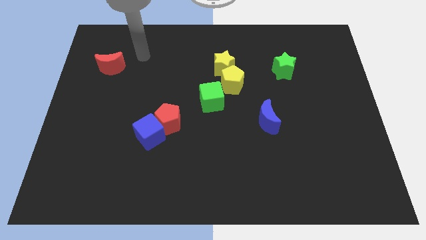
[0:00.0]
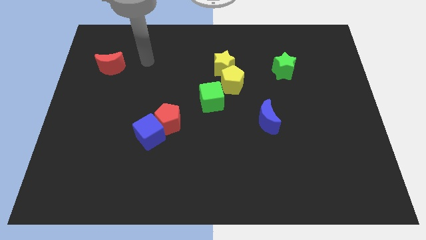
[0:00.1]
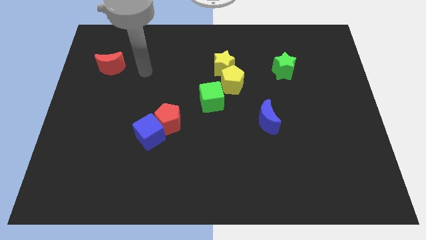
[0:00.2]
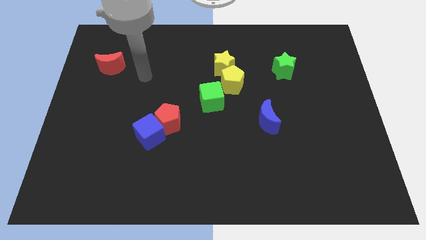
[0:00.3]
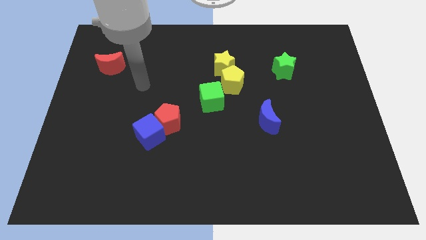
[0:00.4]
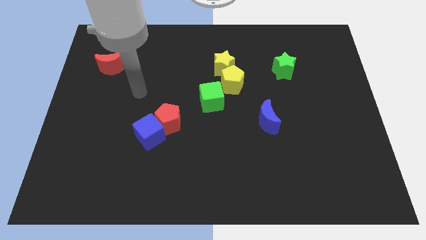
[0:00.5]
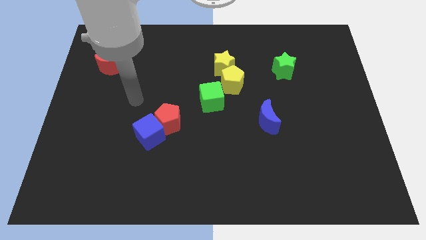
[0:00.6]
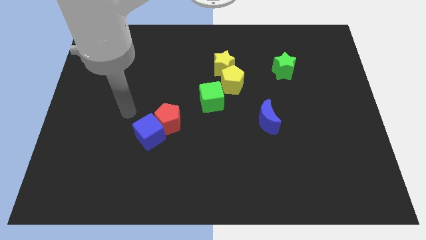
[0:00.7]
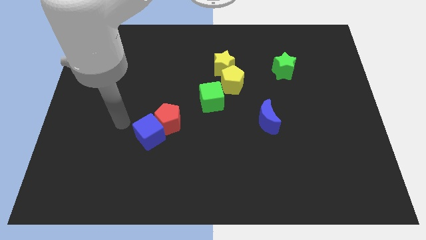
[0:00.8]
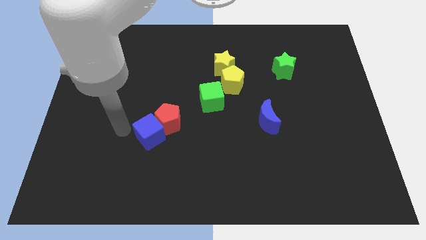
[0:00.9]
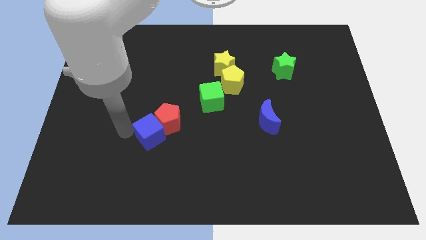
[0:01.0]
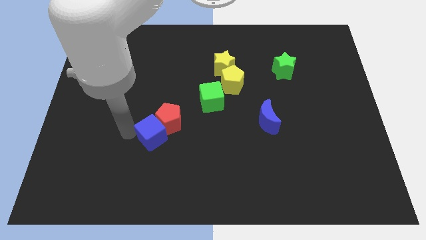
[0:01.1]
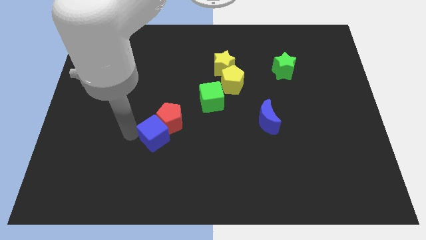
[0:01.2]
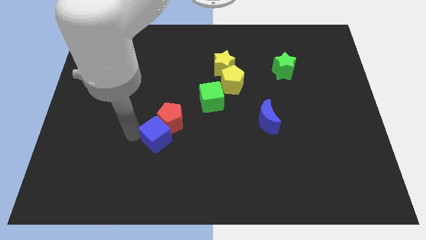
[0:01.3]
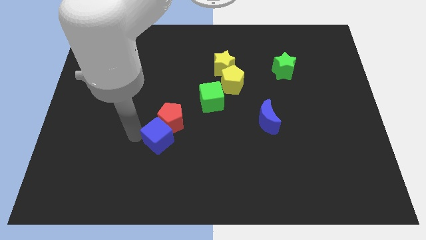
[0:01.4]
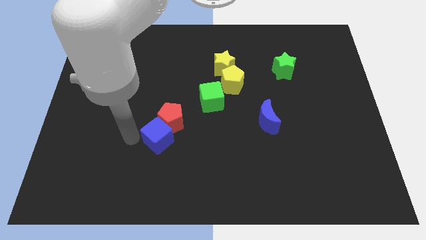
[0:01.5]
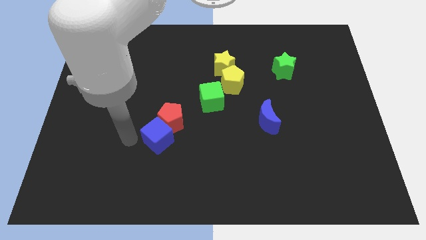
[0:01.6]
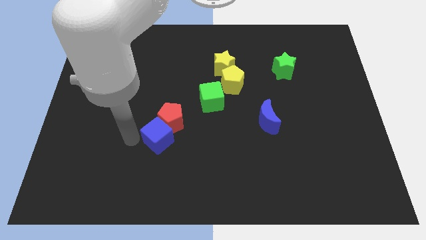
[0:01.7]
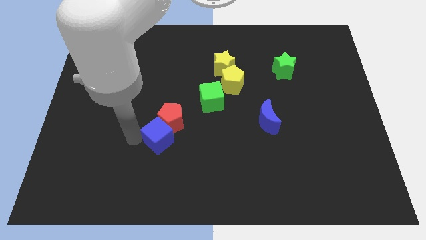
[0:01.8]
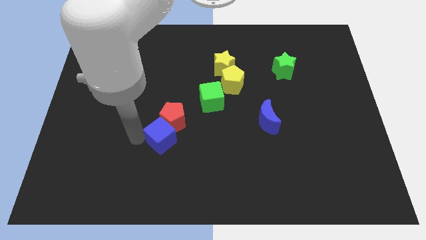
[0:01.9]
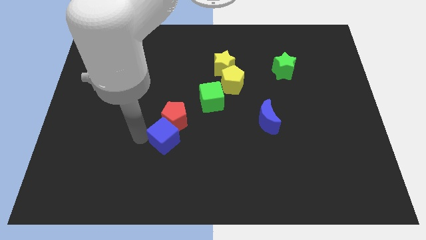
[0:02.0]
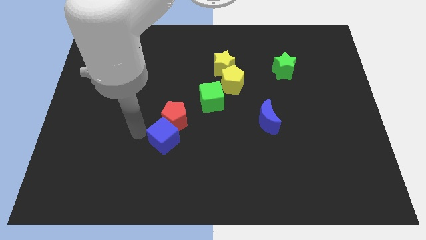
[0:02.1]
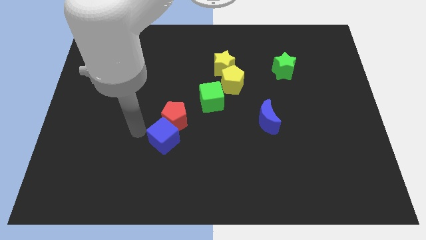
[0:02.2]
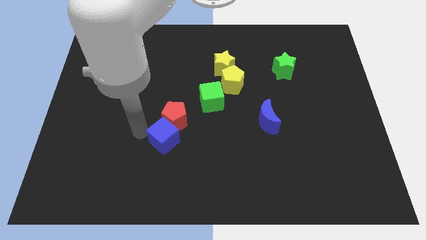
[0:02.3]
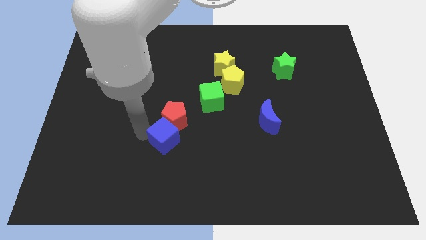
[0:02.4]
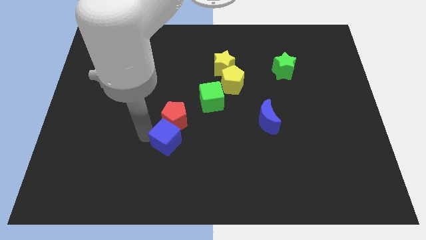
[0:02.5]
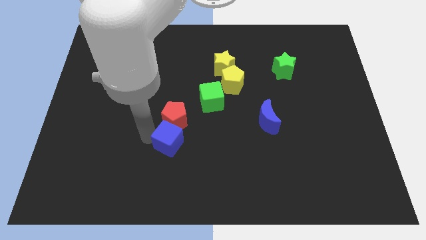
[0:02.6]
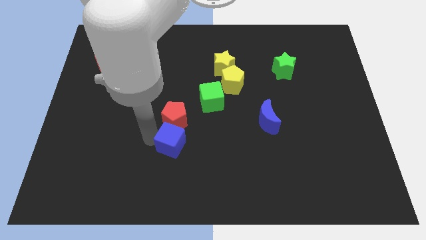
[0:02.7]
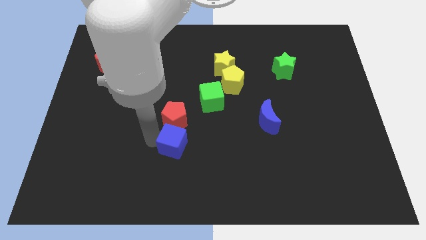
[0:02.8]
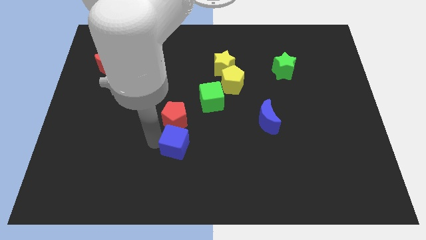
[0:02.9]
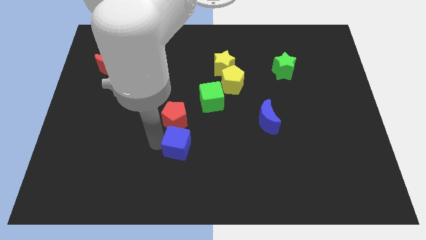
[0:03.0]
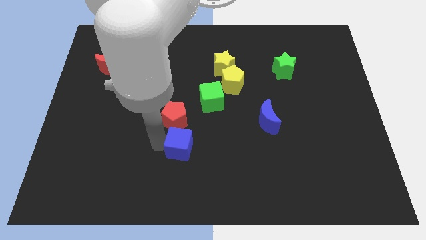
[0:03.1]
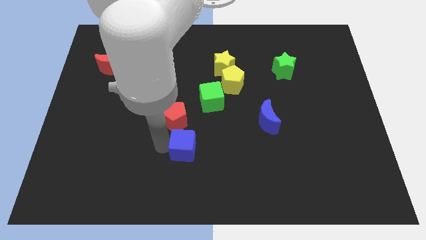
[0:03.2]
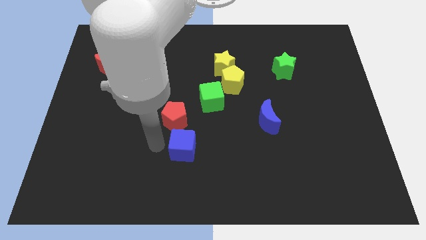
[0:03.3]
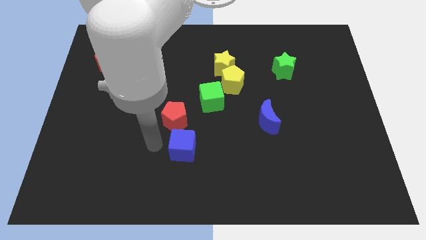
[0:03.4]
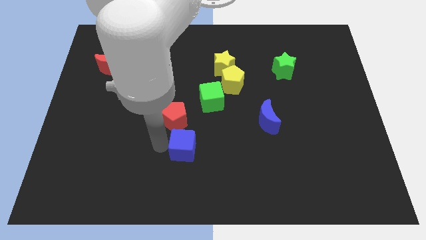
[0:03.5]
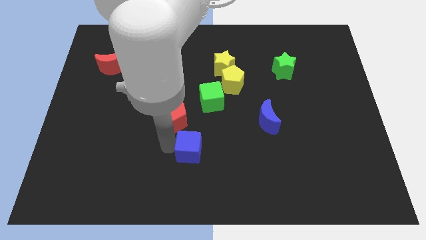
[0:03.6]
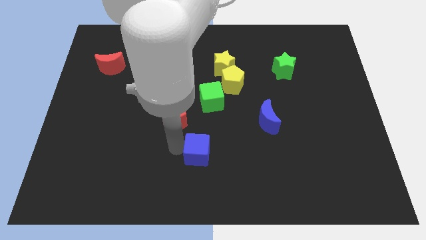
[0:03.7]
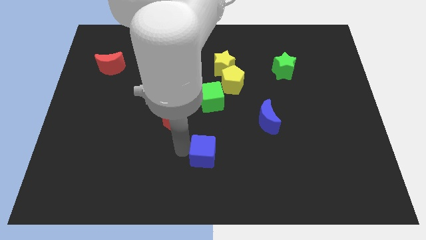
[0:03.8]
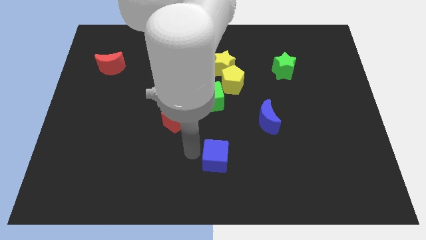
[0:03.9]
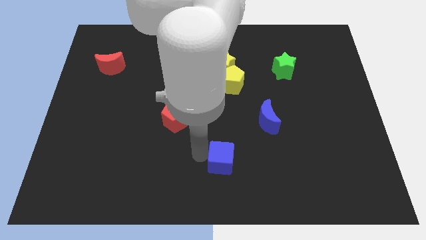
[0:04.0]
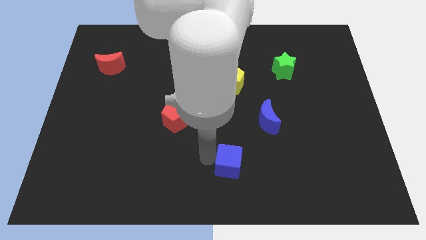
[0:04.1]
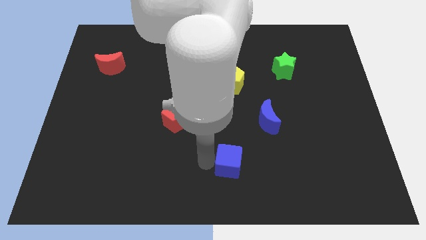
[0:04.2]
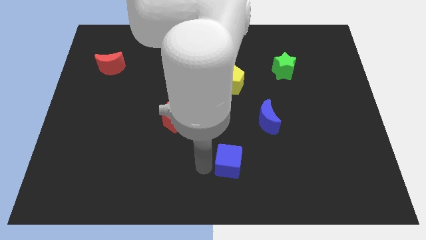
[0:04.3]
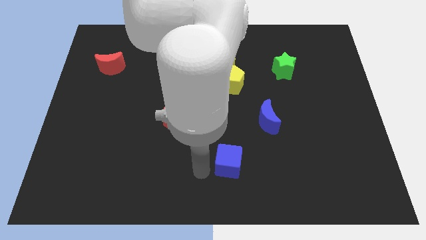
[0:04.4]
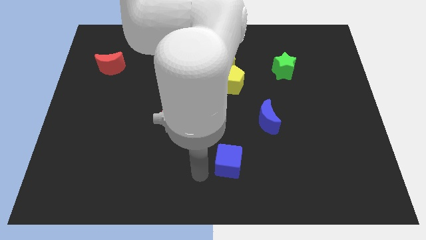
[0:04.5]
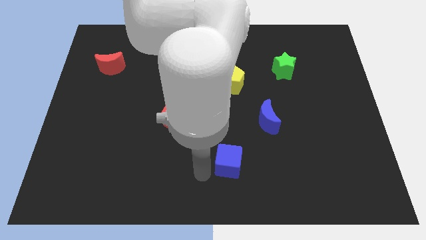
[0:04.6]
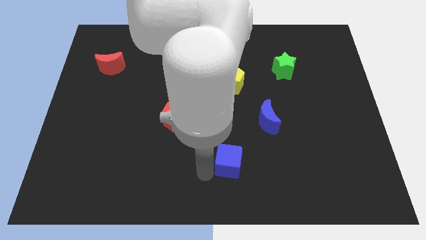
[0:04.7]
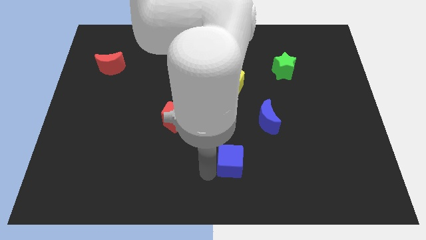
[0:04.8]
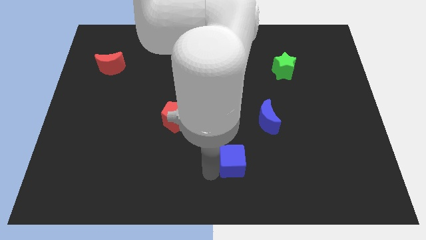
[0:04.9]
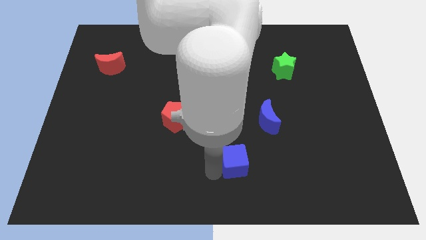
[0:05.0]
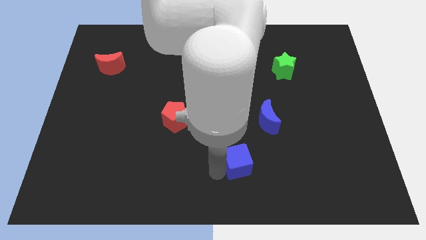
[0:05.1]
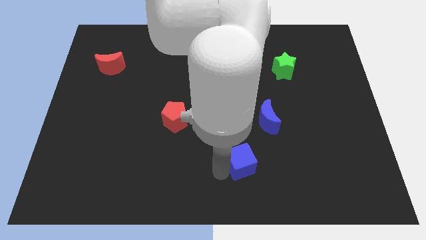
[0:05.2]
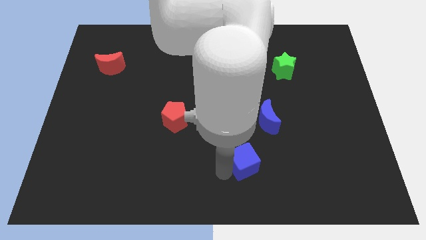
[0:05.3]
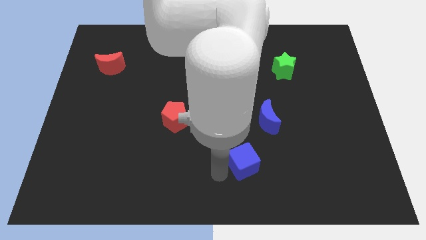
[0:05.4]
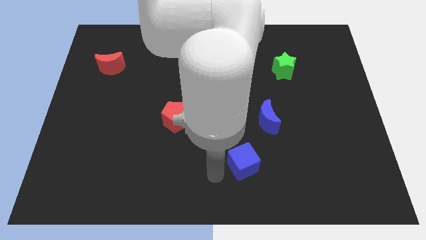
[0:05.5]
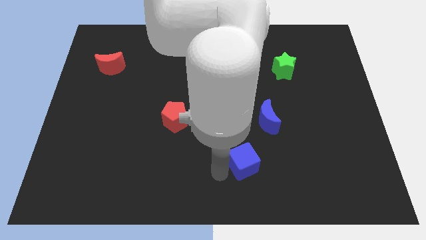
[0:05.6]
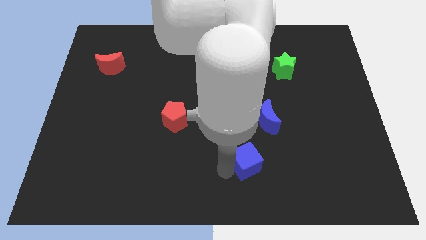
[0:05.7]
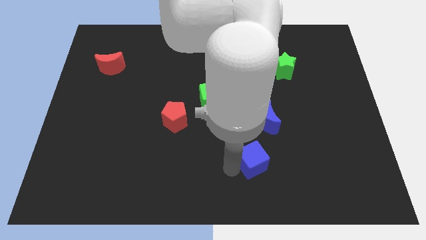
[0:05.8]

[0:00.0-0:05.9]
slide the blue cube right

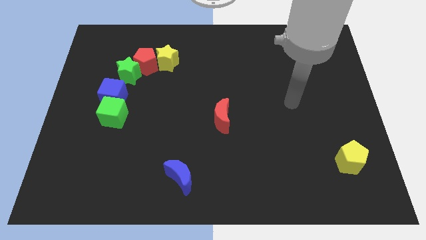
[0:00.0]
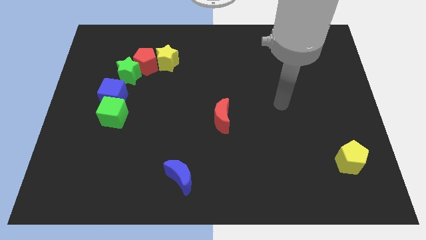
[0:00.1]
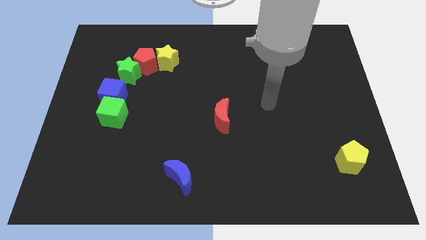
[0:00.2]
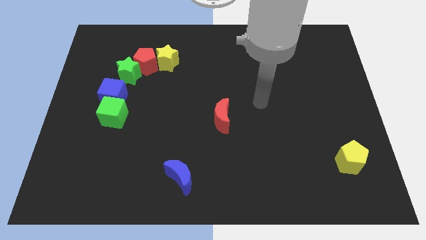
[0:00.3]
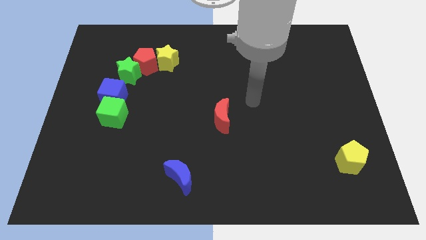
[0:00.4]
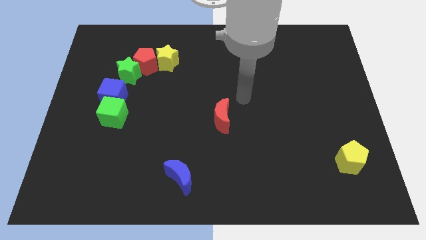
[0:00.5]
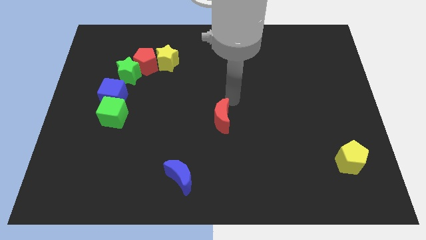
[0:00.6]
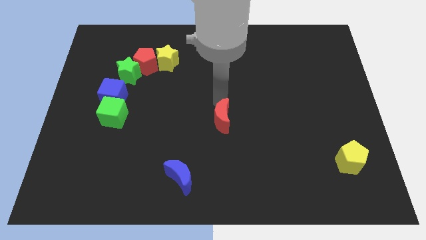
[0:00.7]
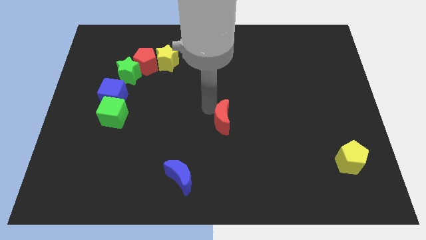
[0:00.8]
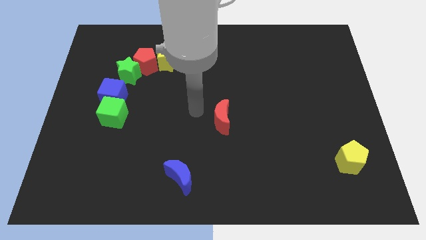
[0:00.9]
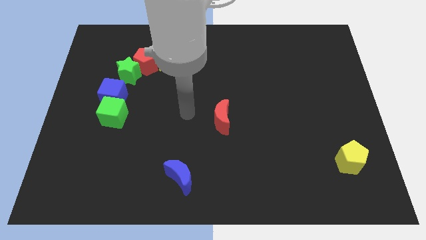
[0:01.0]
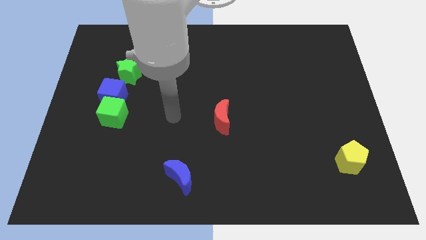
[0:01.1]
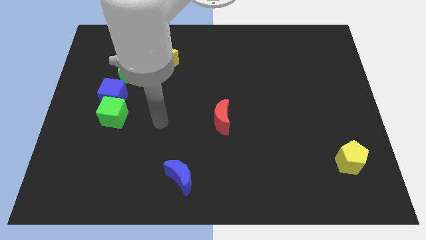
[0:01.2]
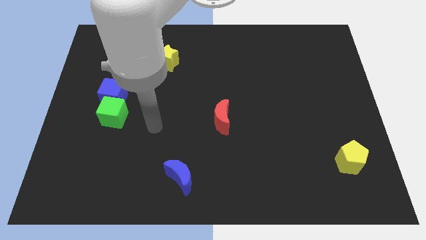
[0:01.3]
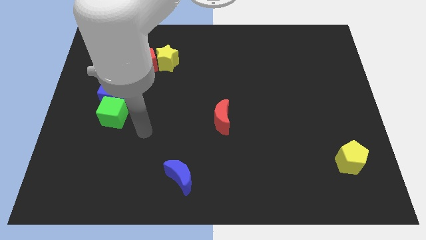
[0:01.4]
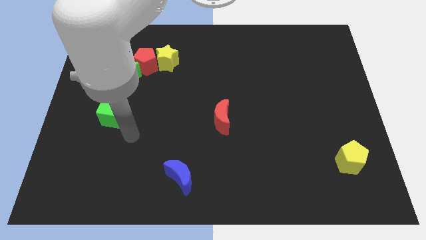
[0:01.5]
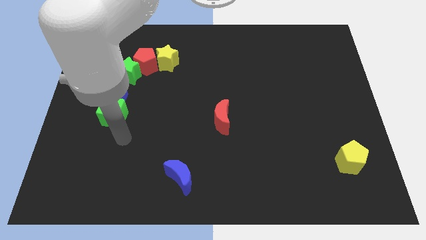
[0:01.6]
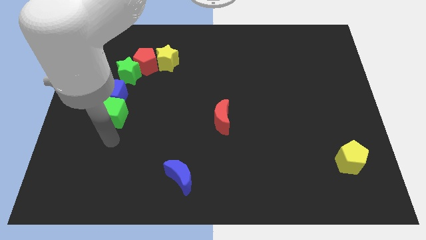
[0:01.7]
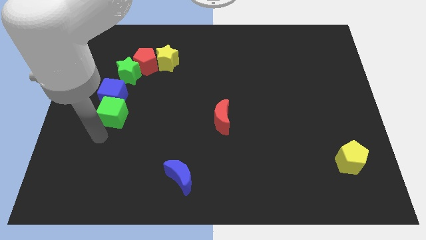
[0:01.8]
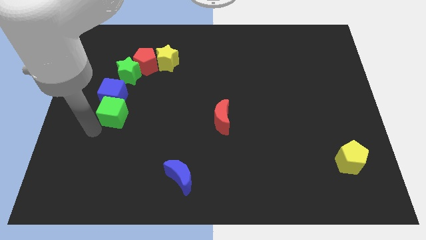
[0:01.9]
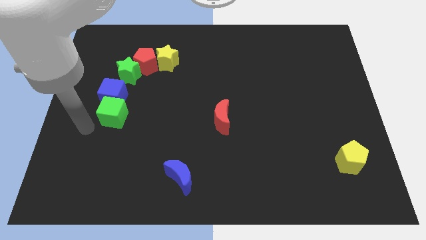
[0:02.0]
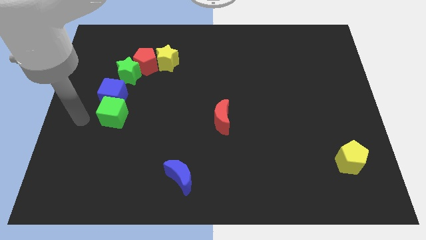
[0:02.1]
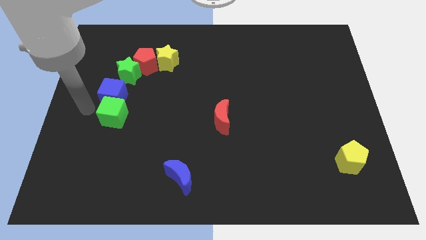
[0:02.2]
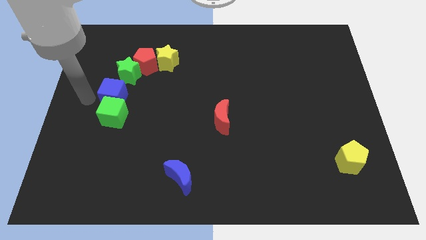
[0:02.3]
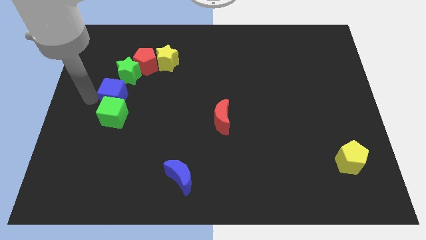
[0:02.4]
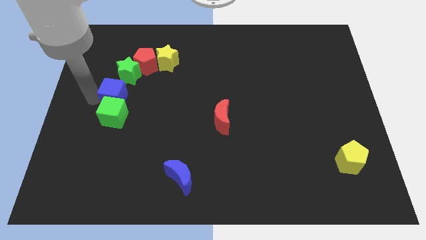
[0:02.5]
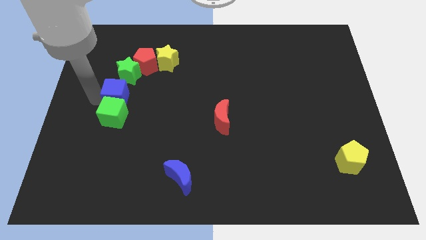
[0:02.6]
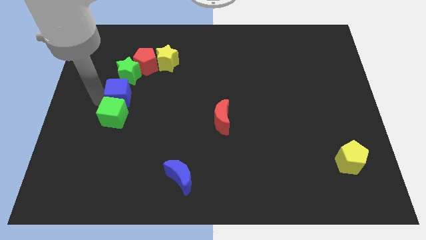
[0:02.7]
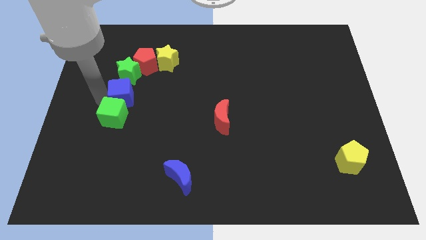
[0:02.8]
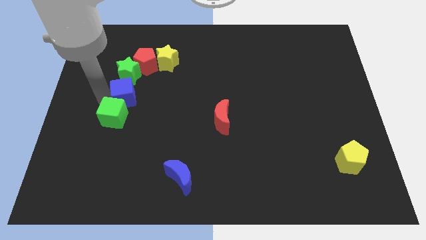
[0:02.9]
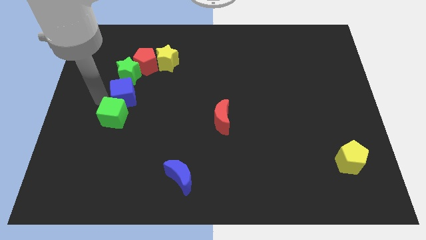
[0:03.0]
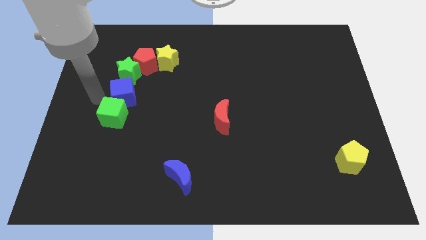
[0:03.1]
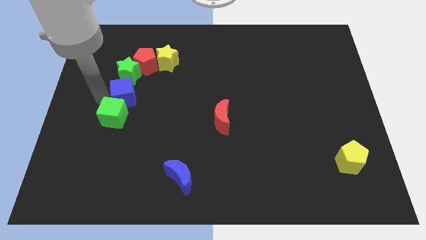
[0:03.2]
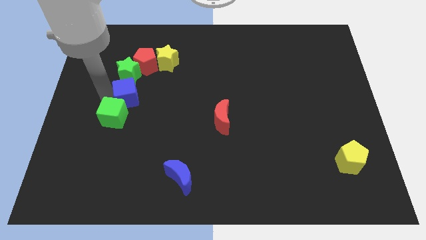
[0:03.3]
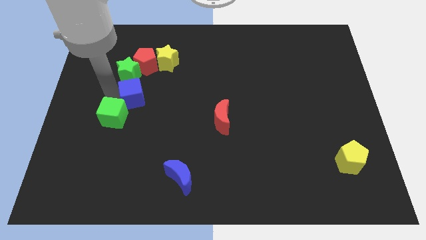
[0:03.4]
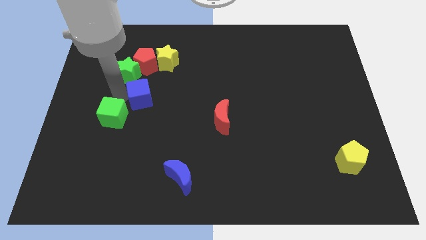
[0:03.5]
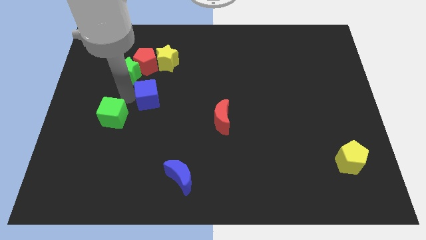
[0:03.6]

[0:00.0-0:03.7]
slightly slide the blue cube right
